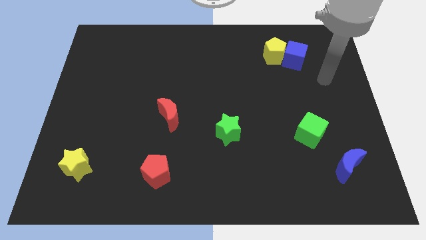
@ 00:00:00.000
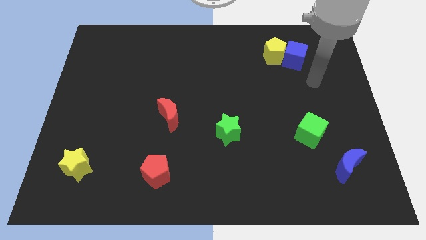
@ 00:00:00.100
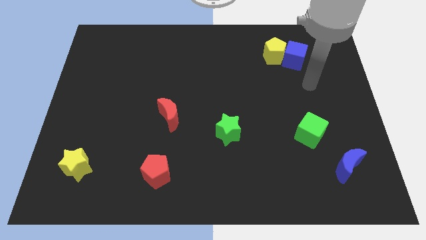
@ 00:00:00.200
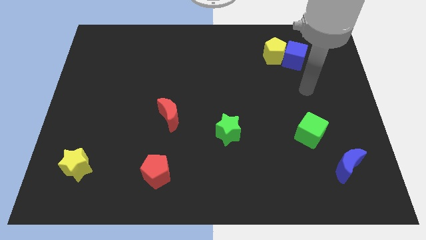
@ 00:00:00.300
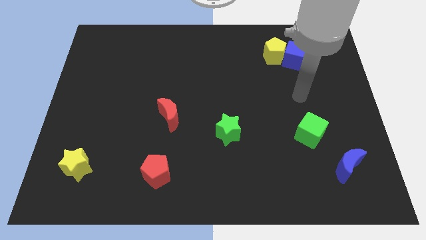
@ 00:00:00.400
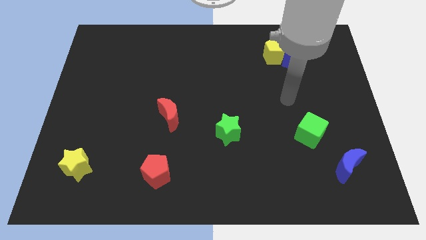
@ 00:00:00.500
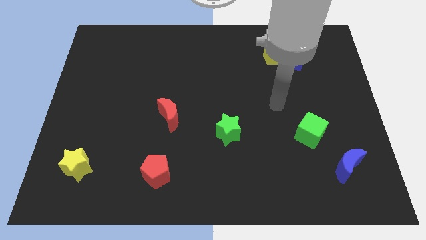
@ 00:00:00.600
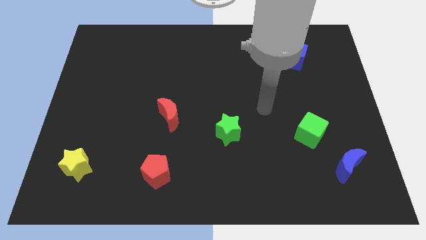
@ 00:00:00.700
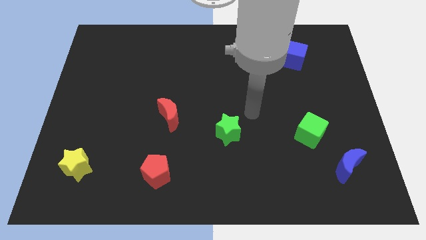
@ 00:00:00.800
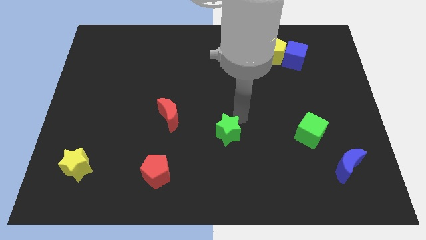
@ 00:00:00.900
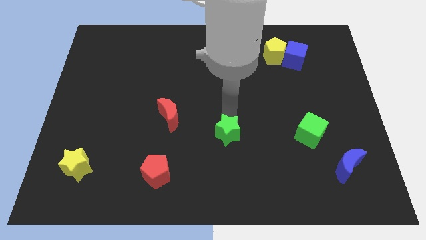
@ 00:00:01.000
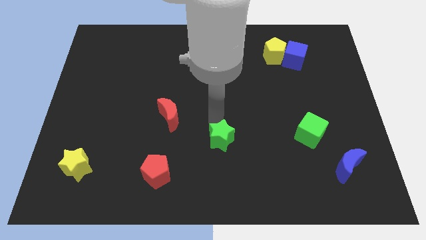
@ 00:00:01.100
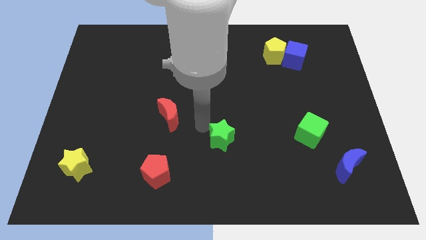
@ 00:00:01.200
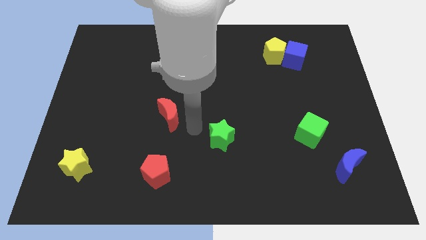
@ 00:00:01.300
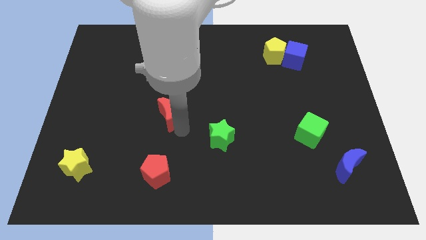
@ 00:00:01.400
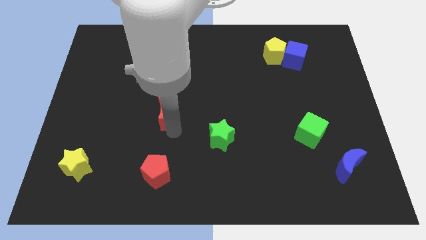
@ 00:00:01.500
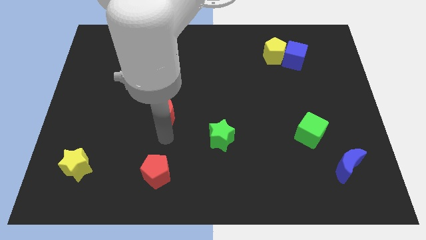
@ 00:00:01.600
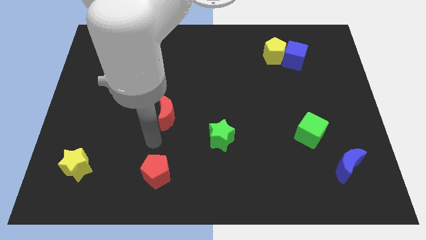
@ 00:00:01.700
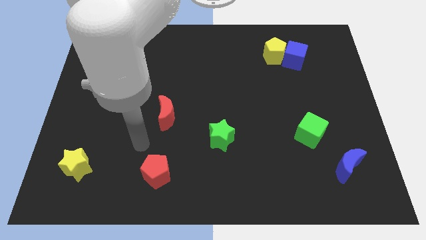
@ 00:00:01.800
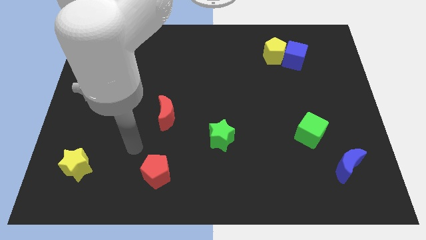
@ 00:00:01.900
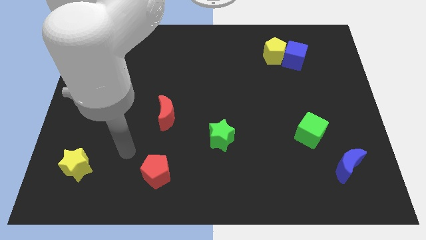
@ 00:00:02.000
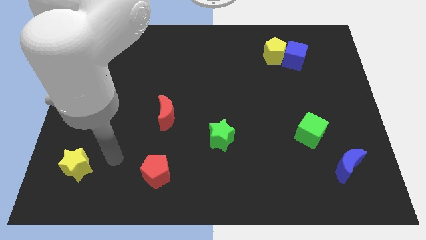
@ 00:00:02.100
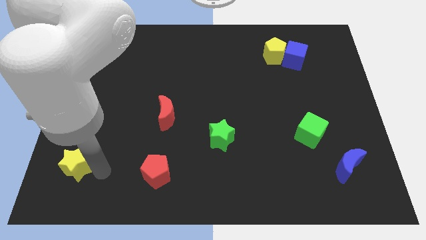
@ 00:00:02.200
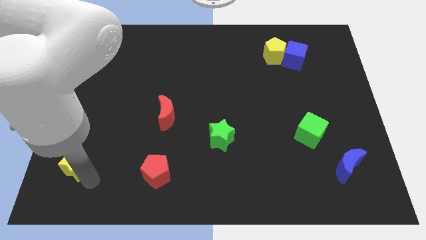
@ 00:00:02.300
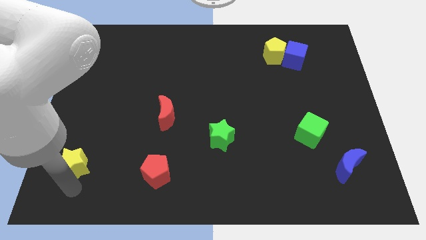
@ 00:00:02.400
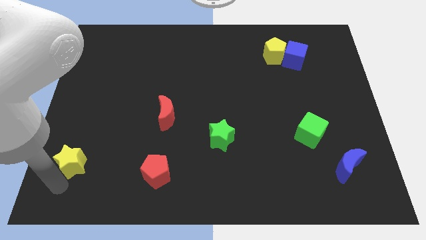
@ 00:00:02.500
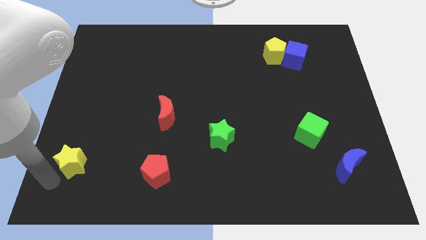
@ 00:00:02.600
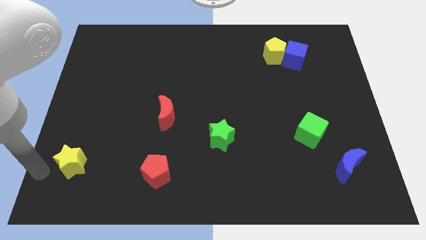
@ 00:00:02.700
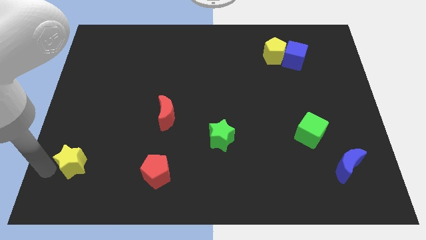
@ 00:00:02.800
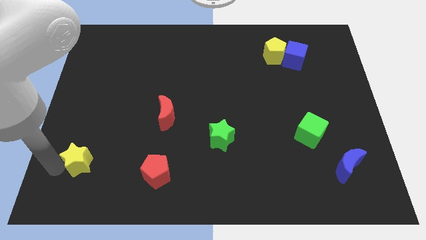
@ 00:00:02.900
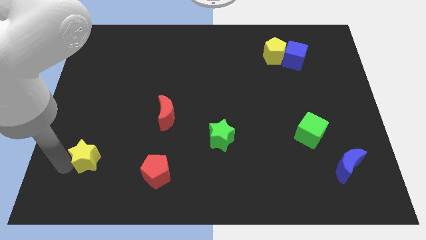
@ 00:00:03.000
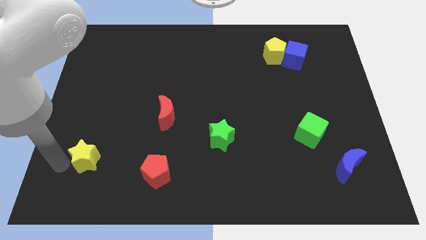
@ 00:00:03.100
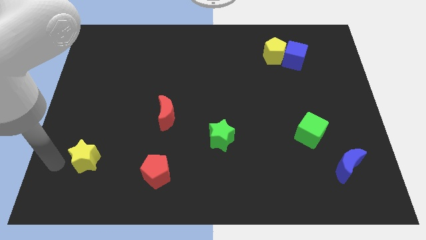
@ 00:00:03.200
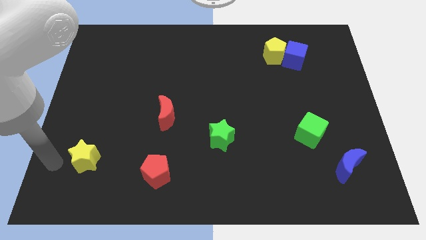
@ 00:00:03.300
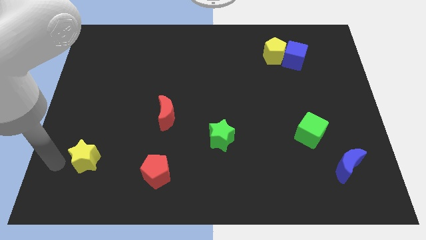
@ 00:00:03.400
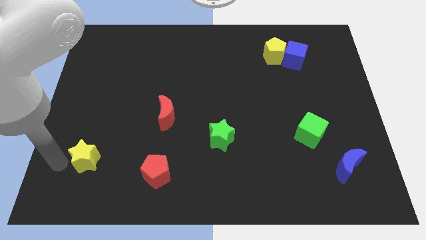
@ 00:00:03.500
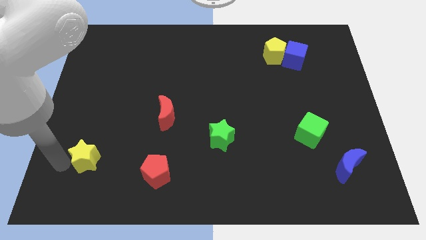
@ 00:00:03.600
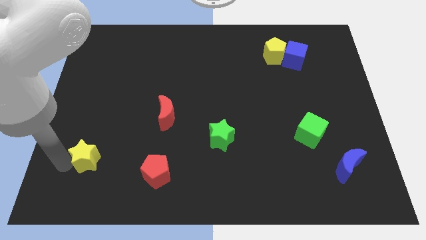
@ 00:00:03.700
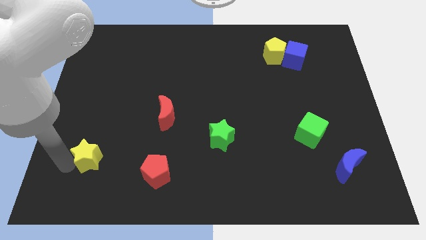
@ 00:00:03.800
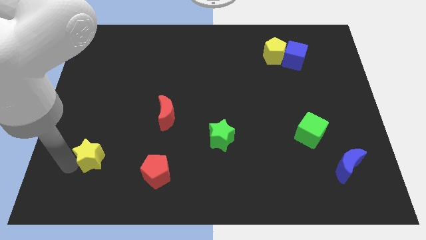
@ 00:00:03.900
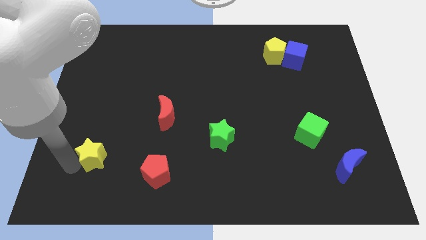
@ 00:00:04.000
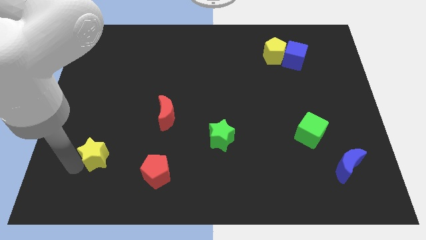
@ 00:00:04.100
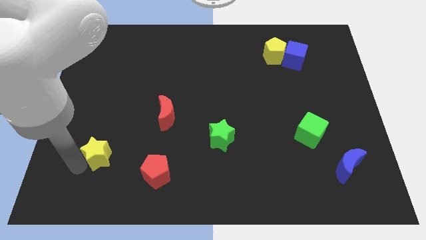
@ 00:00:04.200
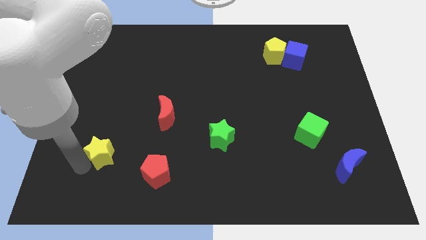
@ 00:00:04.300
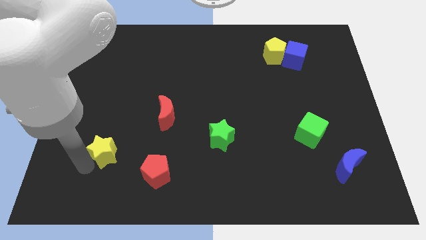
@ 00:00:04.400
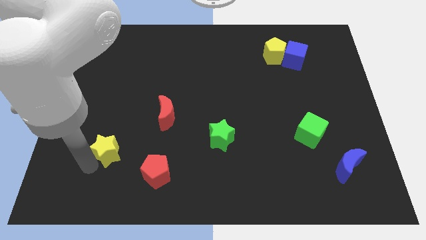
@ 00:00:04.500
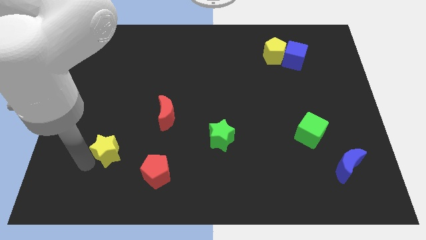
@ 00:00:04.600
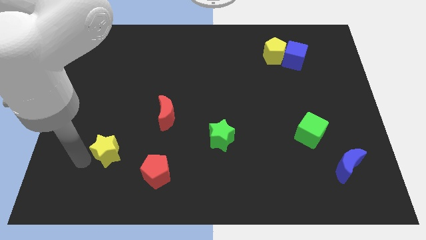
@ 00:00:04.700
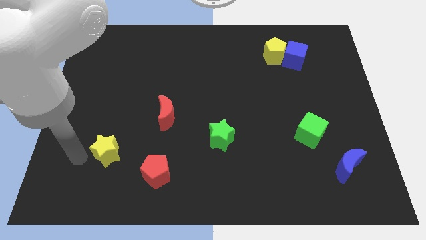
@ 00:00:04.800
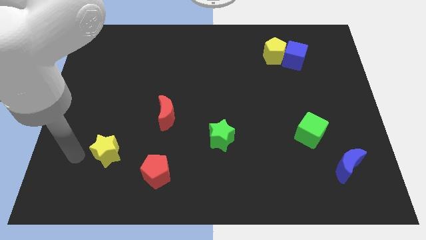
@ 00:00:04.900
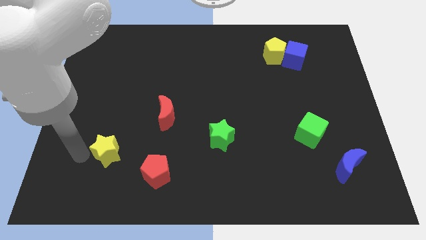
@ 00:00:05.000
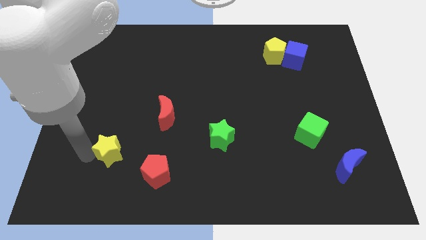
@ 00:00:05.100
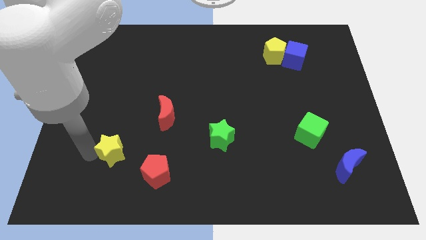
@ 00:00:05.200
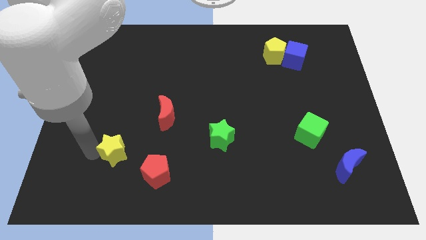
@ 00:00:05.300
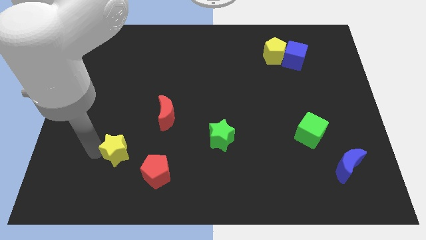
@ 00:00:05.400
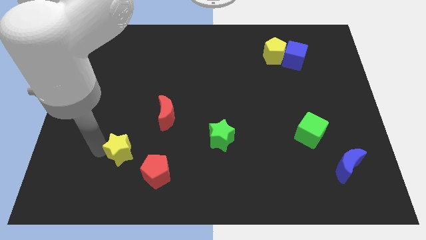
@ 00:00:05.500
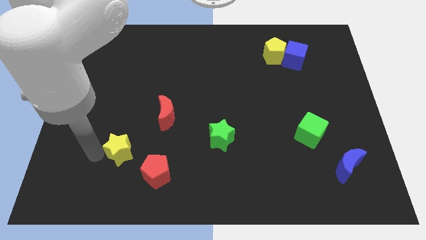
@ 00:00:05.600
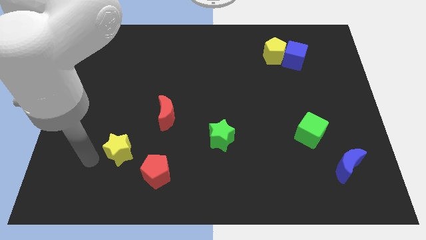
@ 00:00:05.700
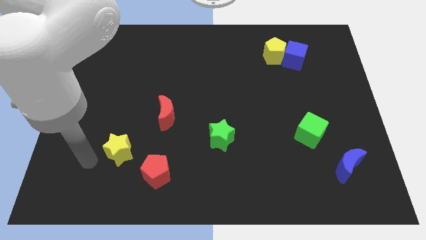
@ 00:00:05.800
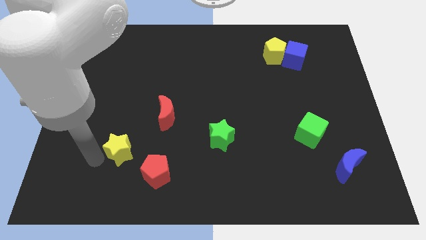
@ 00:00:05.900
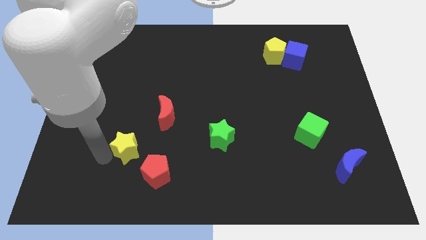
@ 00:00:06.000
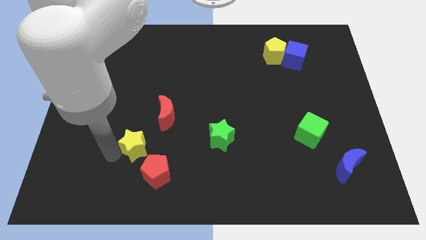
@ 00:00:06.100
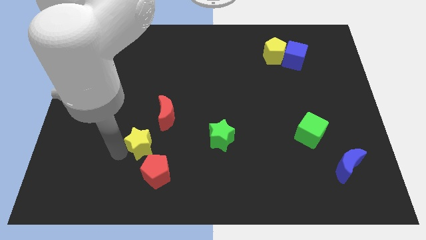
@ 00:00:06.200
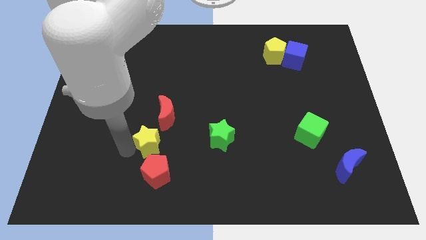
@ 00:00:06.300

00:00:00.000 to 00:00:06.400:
push the yellow star to the left of the green star
